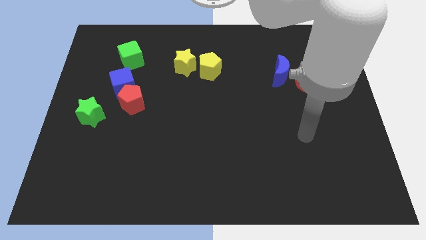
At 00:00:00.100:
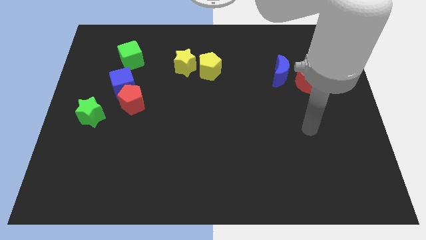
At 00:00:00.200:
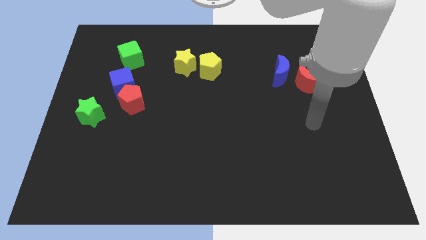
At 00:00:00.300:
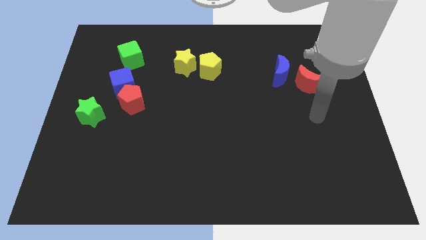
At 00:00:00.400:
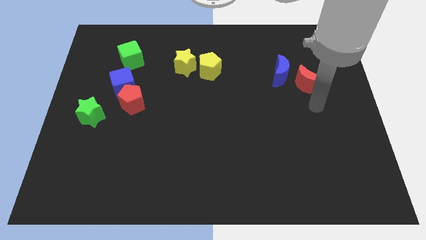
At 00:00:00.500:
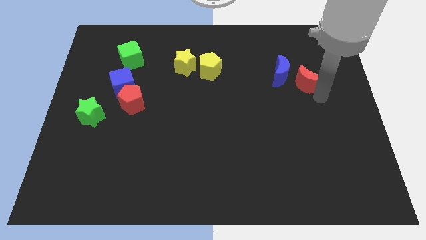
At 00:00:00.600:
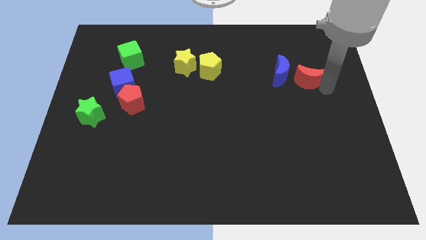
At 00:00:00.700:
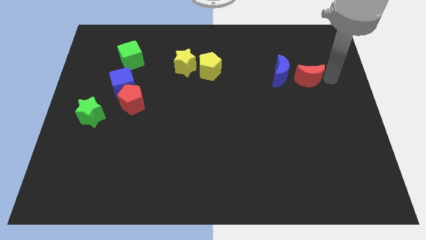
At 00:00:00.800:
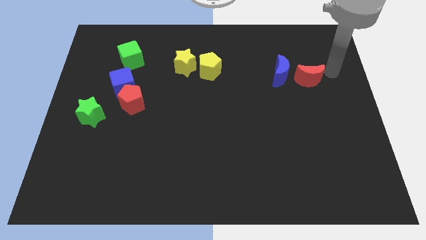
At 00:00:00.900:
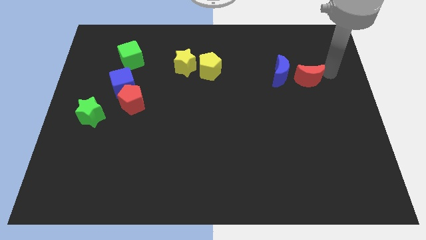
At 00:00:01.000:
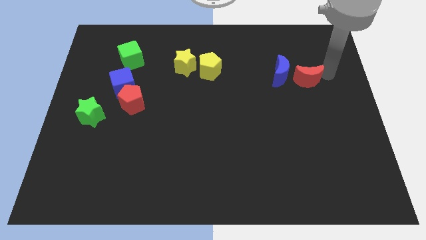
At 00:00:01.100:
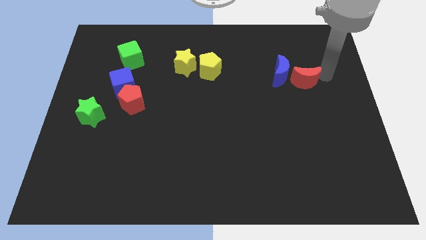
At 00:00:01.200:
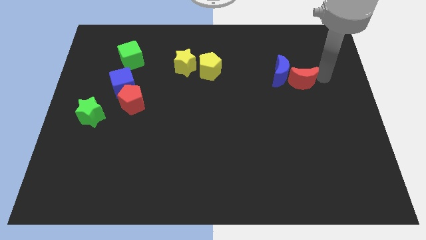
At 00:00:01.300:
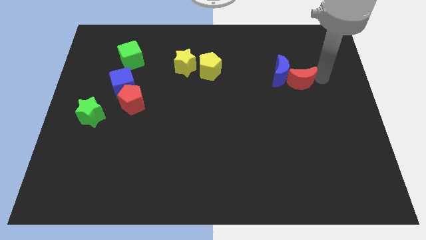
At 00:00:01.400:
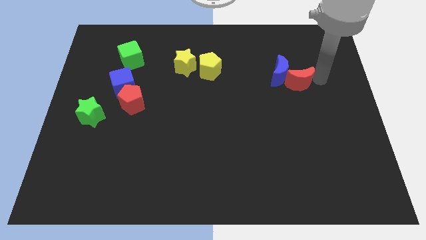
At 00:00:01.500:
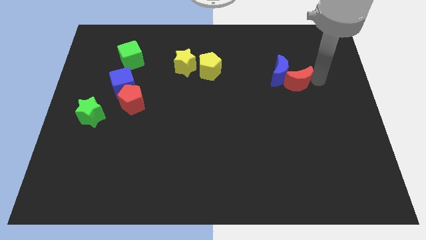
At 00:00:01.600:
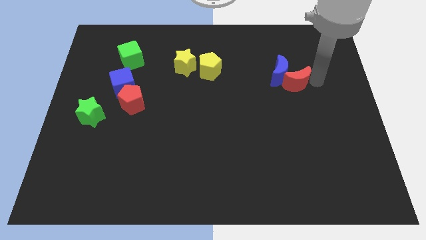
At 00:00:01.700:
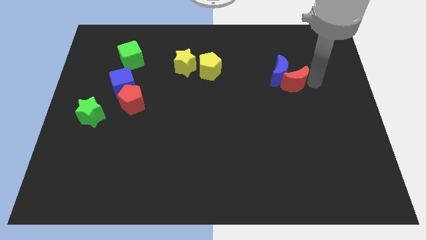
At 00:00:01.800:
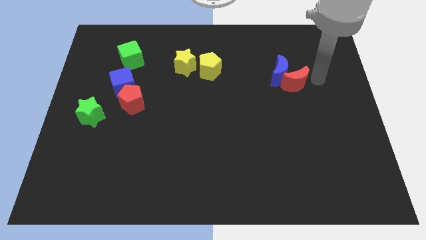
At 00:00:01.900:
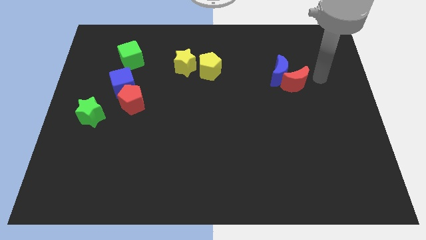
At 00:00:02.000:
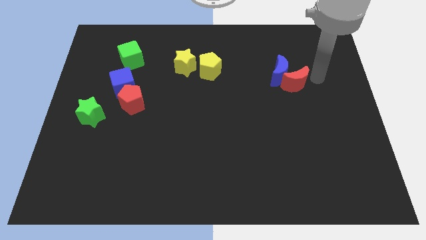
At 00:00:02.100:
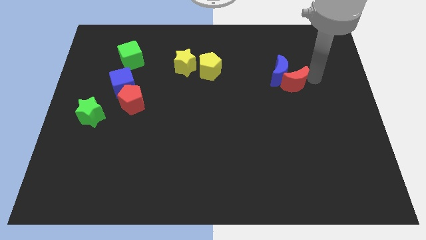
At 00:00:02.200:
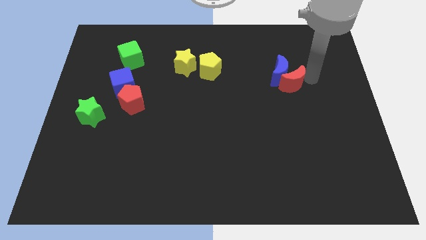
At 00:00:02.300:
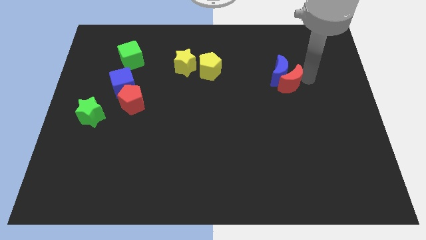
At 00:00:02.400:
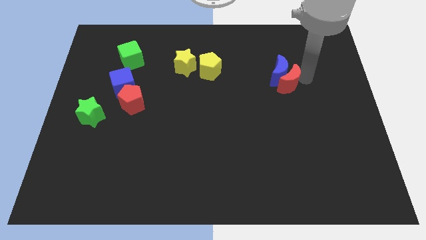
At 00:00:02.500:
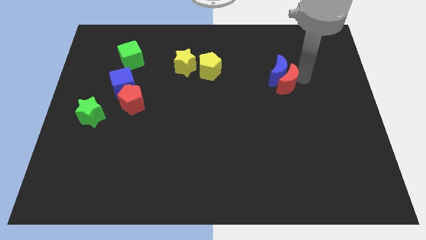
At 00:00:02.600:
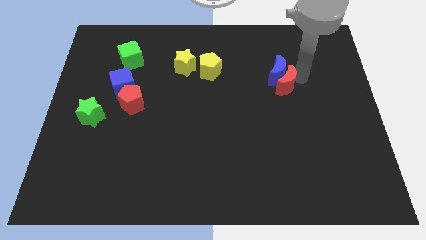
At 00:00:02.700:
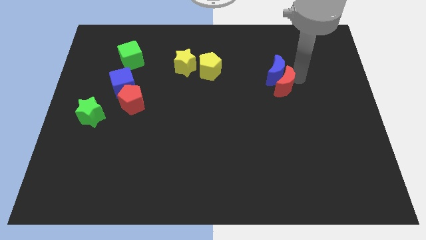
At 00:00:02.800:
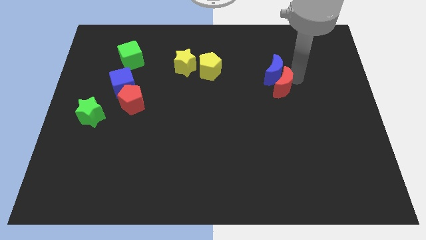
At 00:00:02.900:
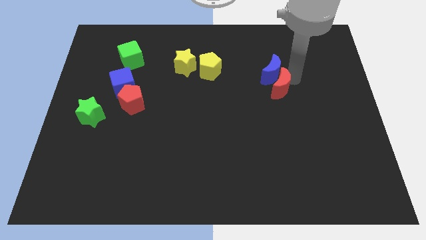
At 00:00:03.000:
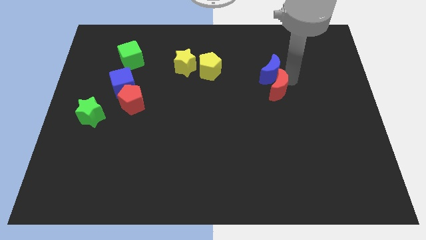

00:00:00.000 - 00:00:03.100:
push the red moon to the left a little

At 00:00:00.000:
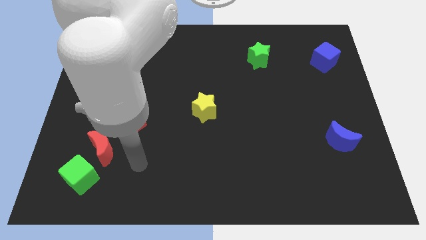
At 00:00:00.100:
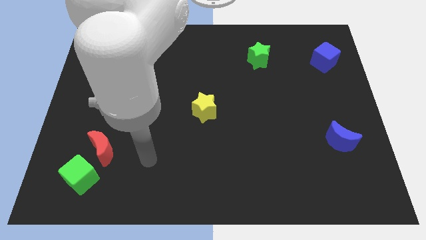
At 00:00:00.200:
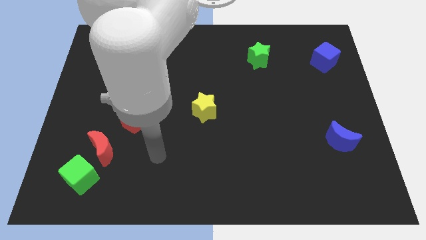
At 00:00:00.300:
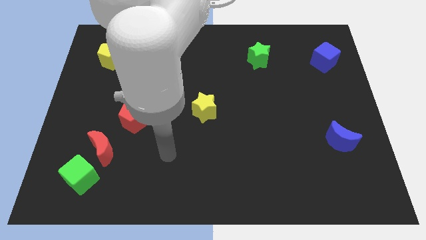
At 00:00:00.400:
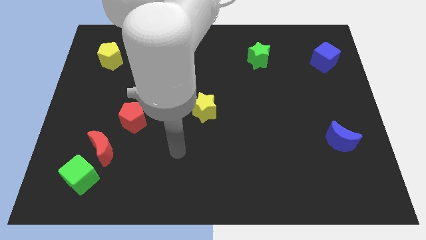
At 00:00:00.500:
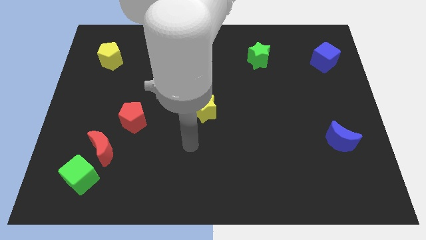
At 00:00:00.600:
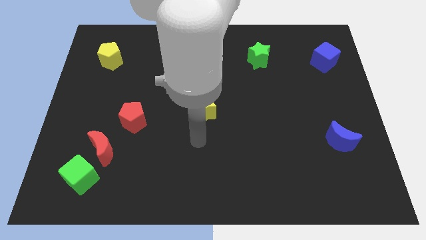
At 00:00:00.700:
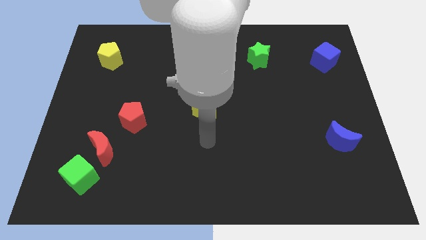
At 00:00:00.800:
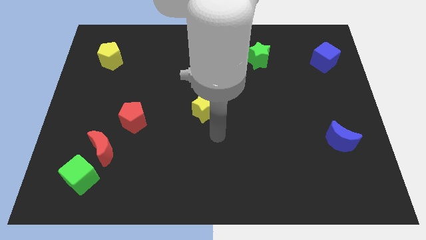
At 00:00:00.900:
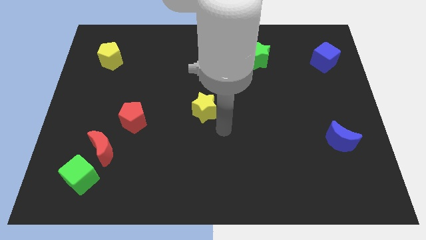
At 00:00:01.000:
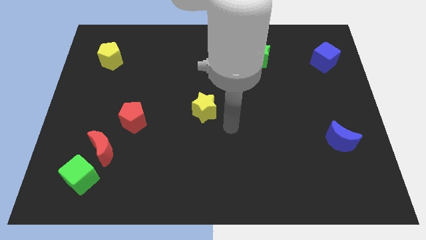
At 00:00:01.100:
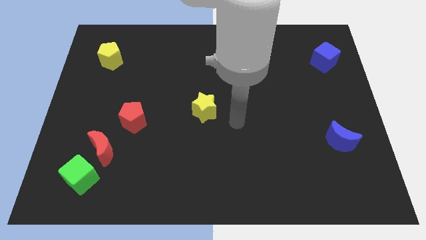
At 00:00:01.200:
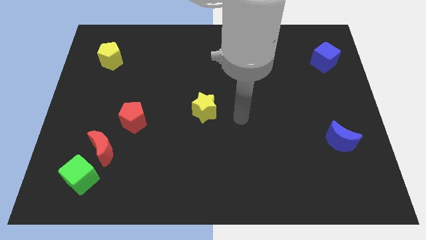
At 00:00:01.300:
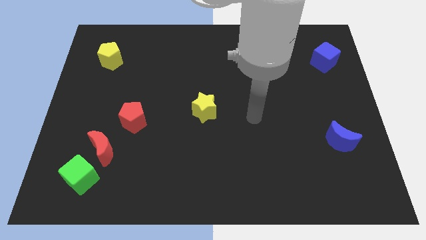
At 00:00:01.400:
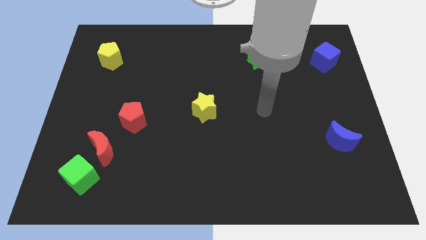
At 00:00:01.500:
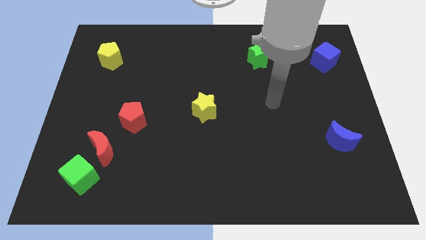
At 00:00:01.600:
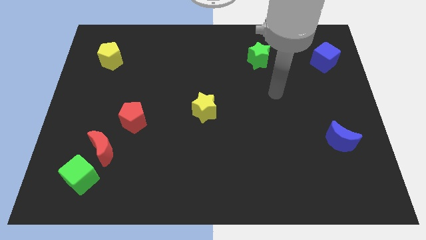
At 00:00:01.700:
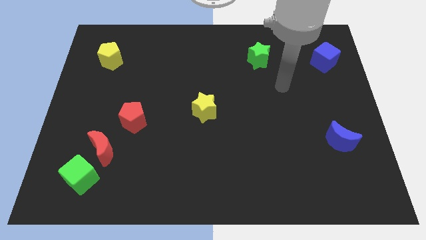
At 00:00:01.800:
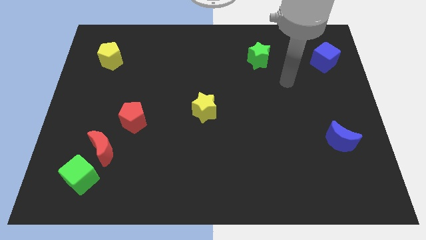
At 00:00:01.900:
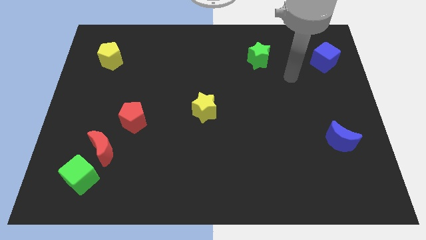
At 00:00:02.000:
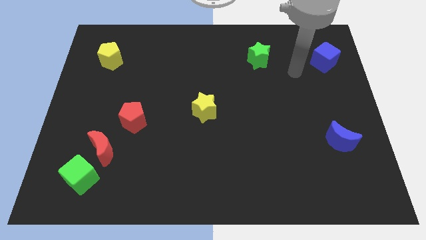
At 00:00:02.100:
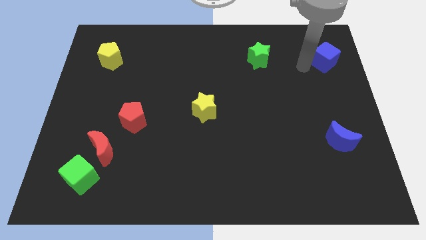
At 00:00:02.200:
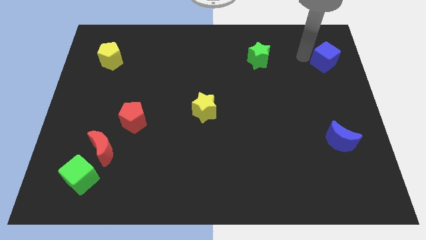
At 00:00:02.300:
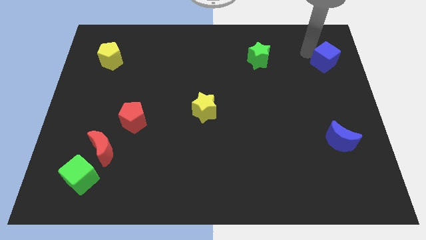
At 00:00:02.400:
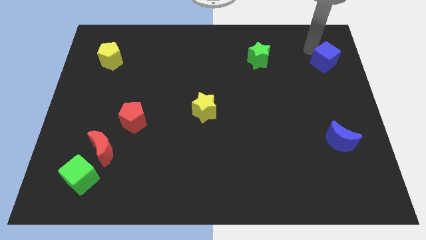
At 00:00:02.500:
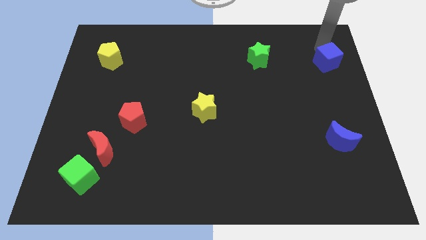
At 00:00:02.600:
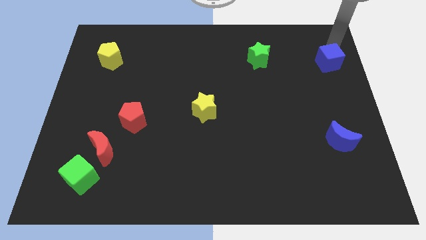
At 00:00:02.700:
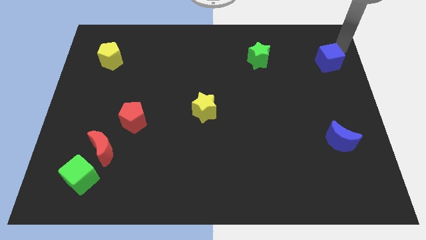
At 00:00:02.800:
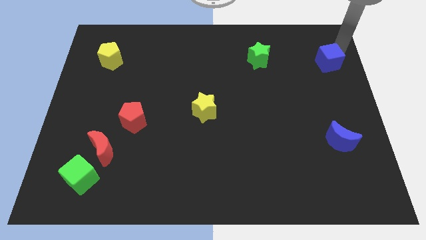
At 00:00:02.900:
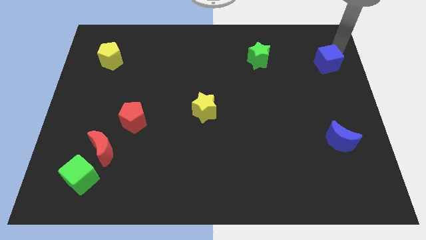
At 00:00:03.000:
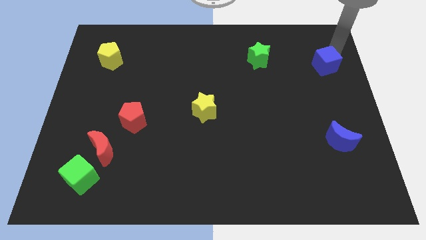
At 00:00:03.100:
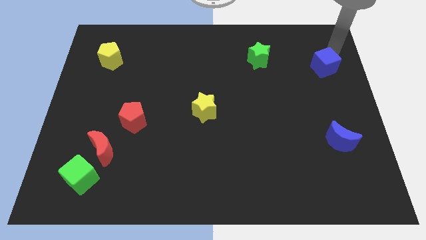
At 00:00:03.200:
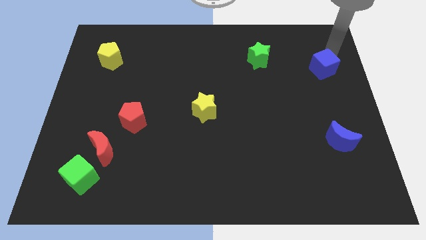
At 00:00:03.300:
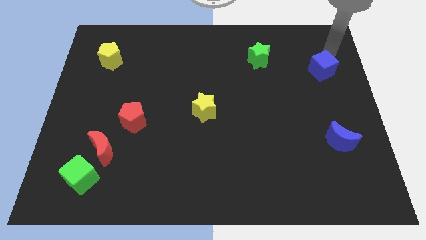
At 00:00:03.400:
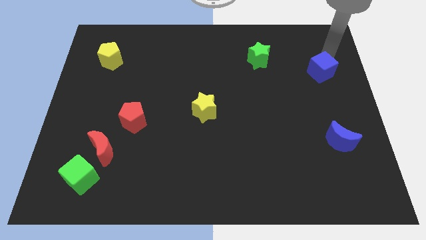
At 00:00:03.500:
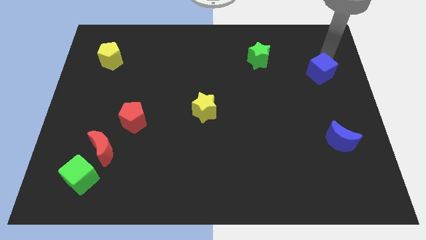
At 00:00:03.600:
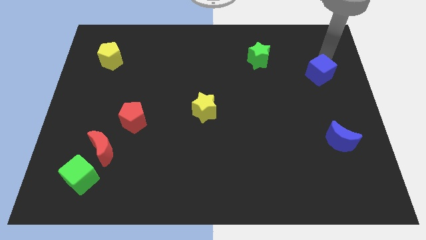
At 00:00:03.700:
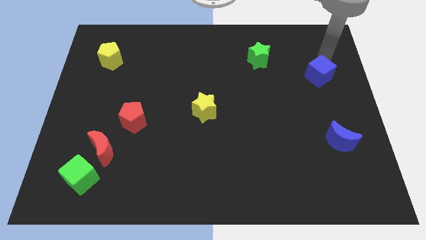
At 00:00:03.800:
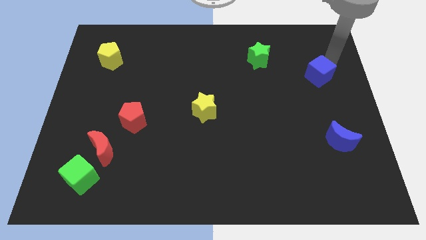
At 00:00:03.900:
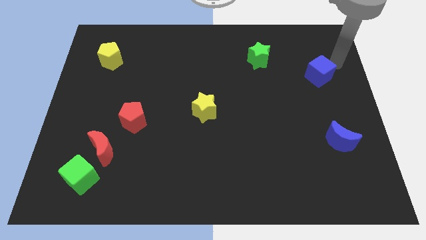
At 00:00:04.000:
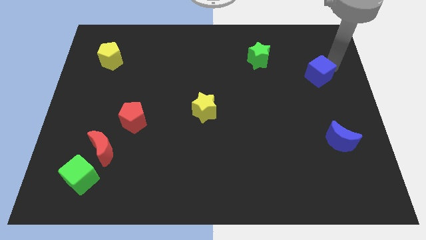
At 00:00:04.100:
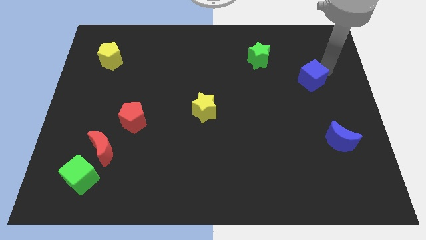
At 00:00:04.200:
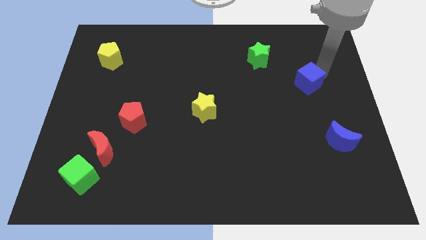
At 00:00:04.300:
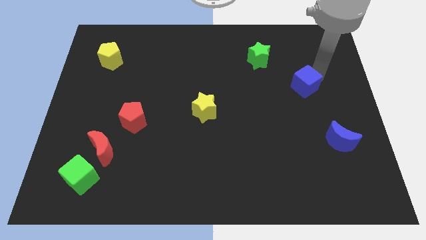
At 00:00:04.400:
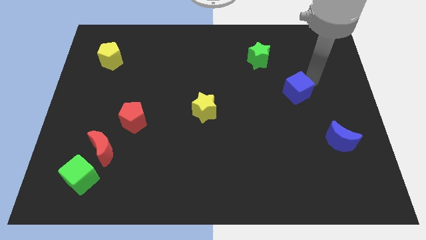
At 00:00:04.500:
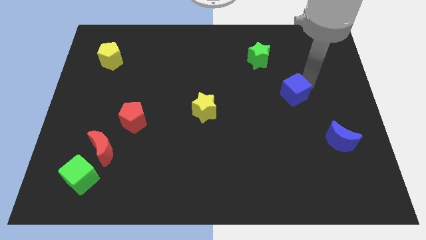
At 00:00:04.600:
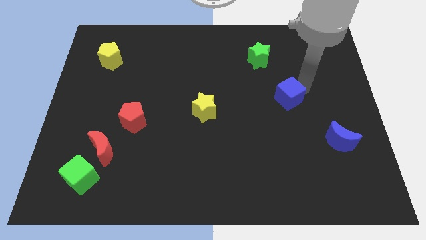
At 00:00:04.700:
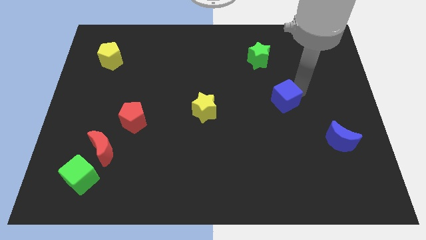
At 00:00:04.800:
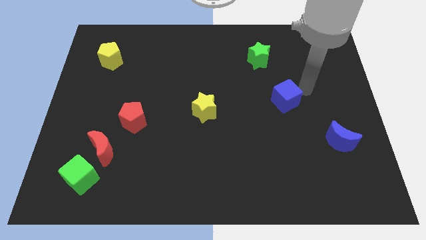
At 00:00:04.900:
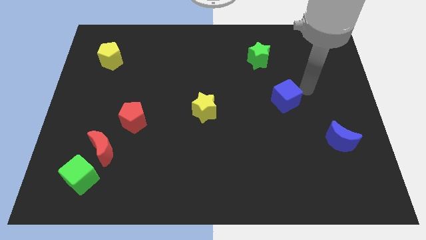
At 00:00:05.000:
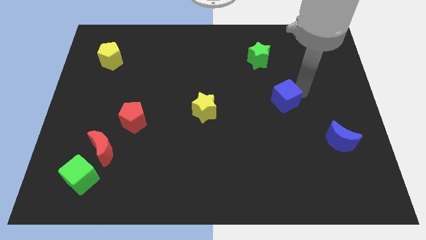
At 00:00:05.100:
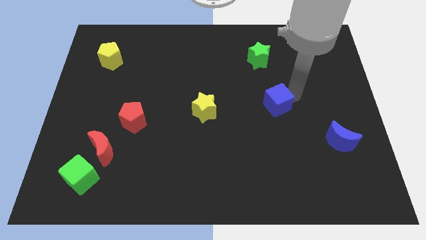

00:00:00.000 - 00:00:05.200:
move the blue cube diagonally downwards and left
